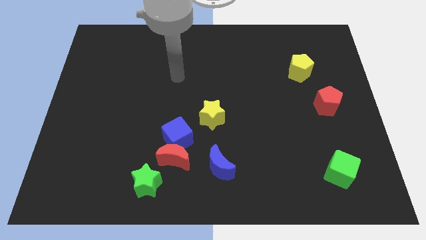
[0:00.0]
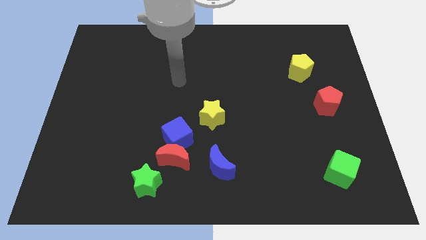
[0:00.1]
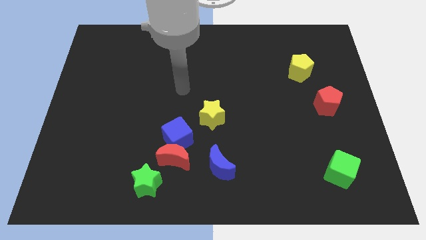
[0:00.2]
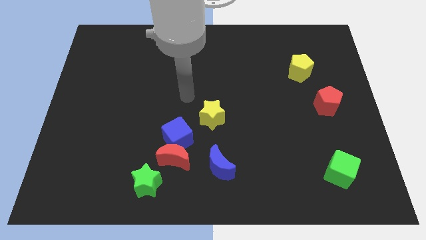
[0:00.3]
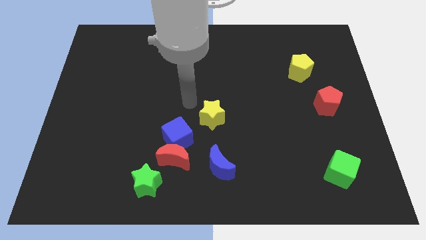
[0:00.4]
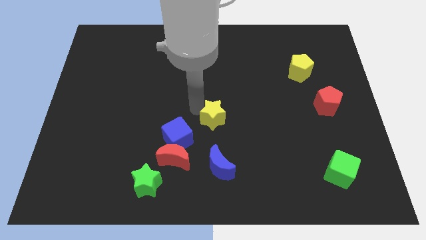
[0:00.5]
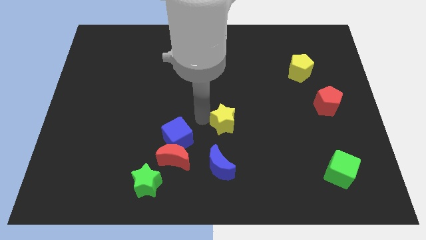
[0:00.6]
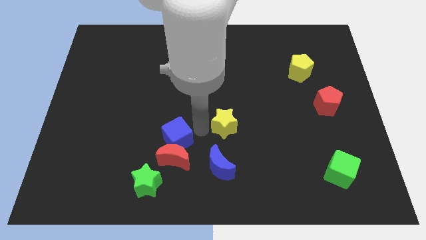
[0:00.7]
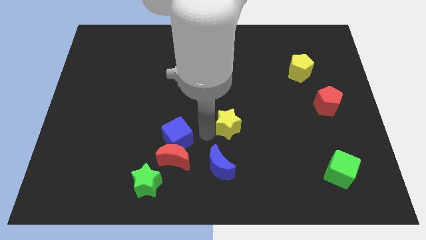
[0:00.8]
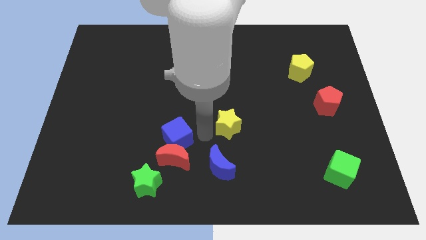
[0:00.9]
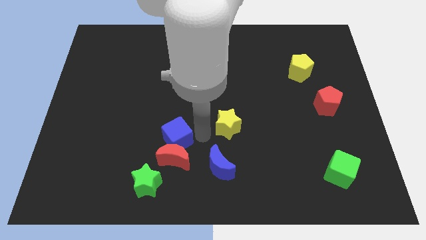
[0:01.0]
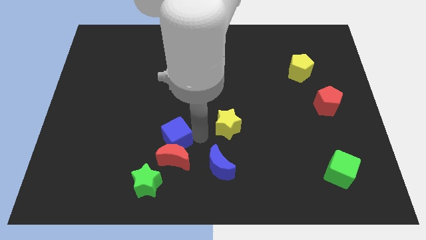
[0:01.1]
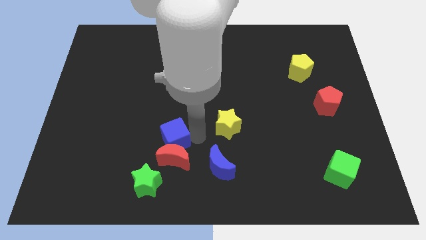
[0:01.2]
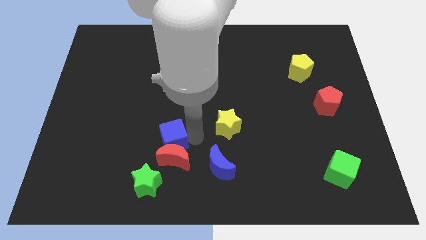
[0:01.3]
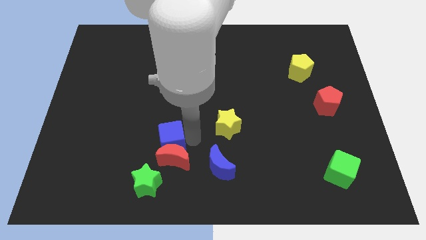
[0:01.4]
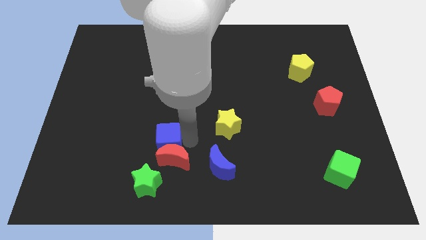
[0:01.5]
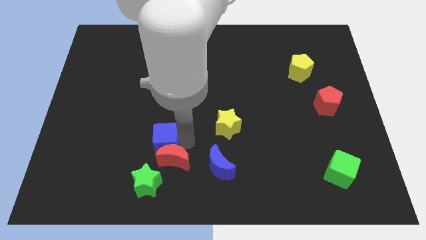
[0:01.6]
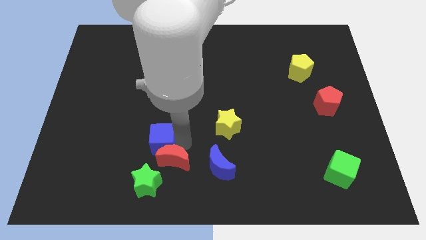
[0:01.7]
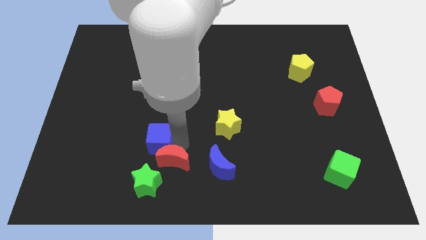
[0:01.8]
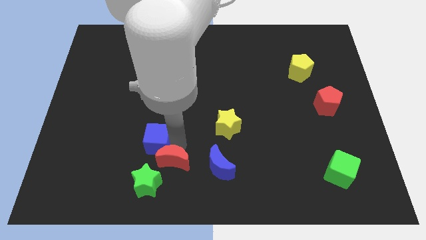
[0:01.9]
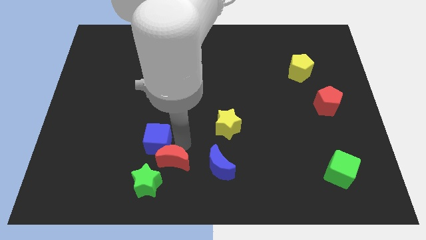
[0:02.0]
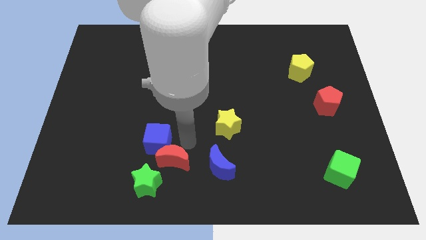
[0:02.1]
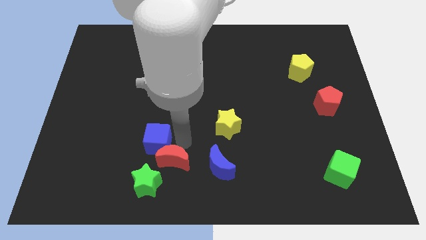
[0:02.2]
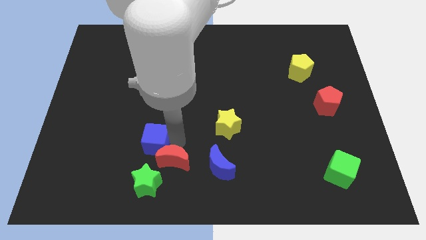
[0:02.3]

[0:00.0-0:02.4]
pull the blue cube apart from the red moon and yellow star

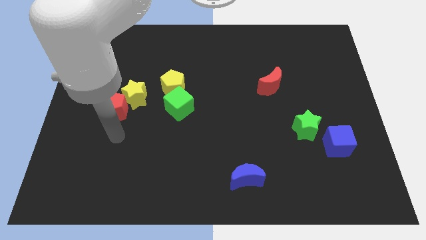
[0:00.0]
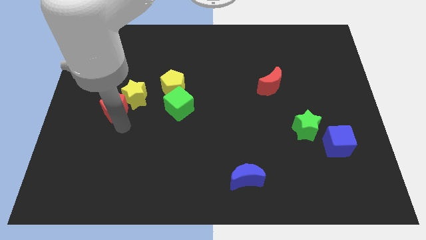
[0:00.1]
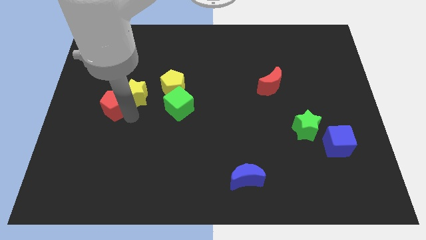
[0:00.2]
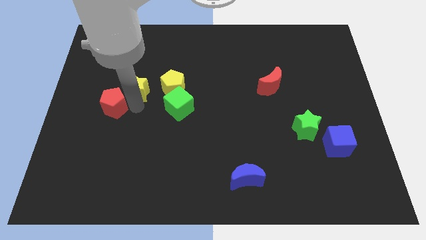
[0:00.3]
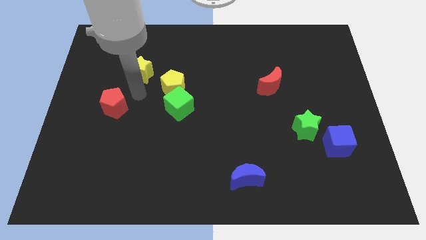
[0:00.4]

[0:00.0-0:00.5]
pull the red pentagon apart from the yellow star

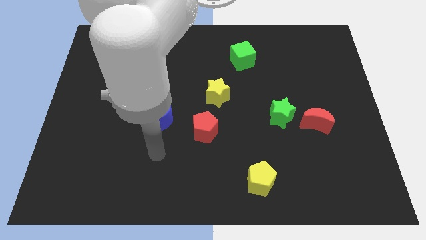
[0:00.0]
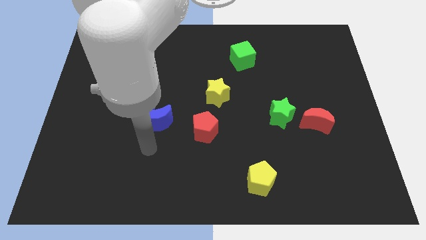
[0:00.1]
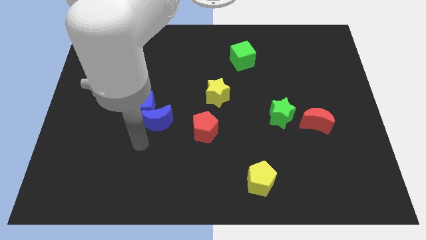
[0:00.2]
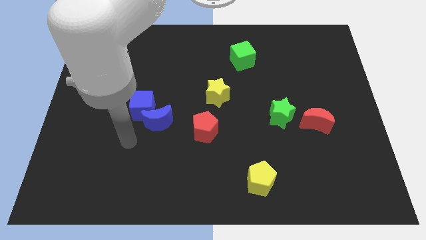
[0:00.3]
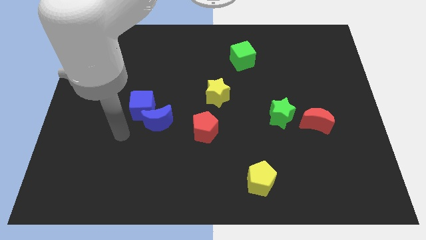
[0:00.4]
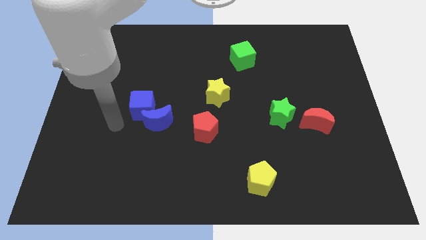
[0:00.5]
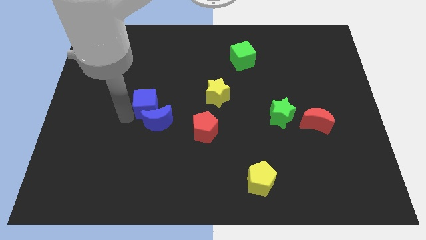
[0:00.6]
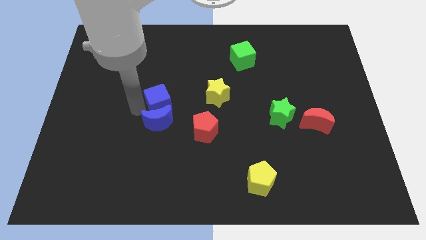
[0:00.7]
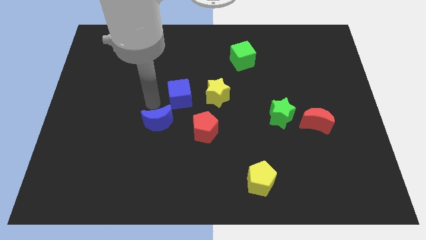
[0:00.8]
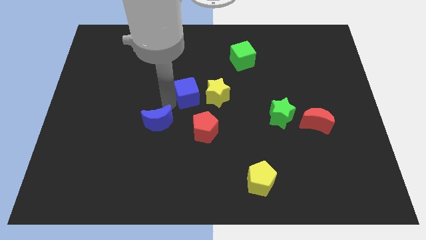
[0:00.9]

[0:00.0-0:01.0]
move the blue moon away from the blue cube

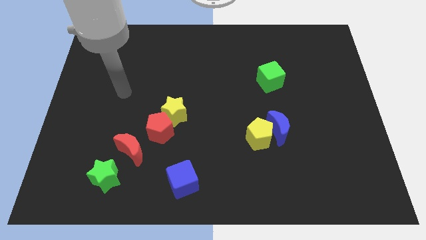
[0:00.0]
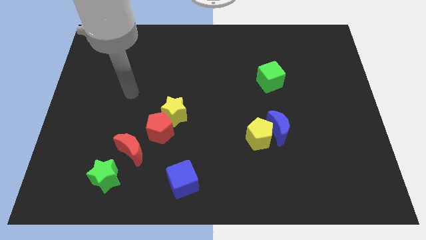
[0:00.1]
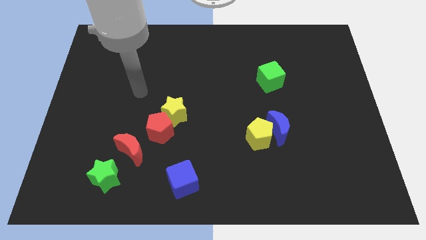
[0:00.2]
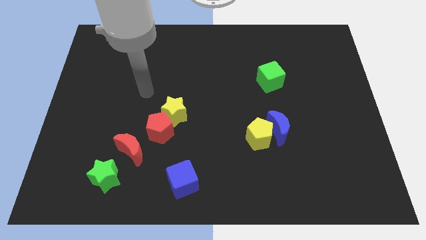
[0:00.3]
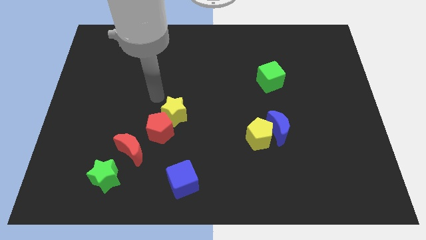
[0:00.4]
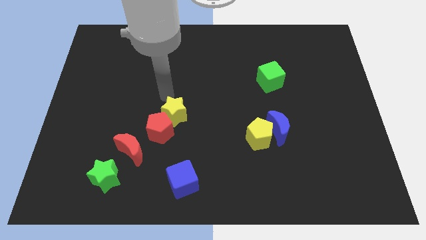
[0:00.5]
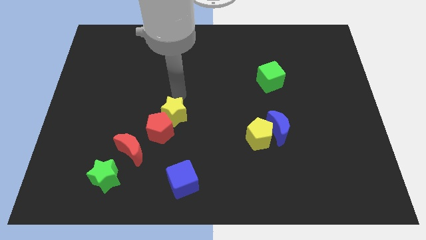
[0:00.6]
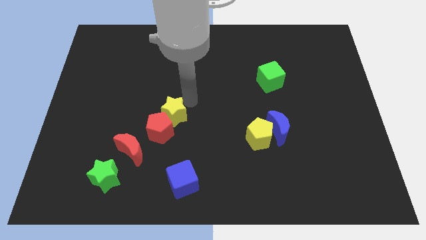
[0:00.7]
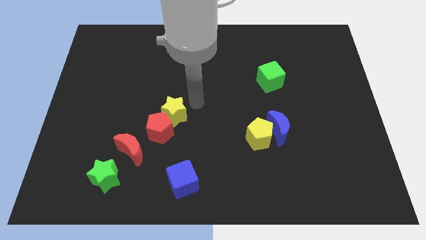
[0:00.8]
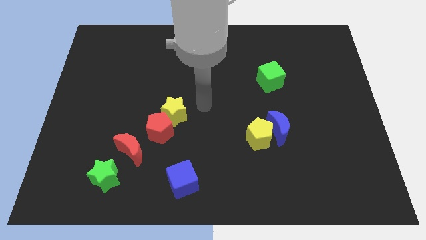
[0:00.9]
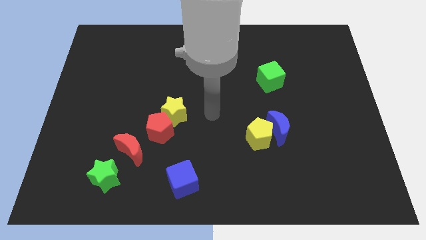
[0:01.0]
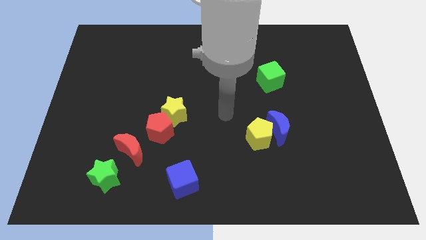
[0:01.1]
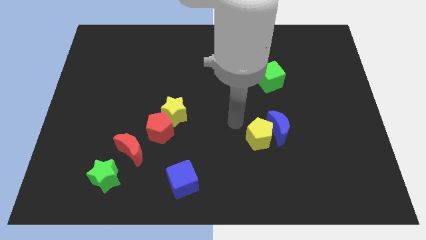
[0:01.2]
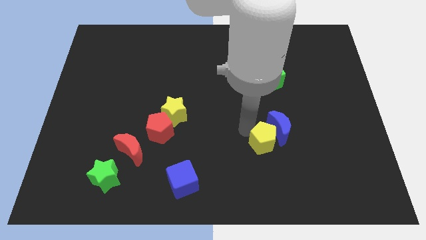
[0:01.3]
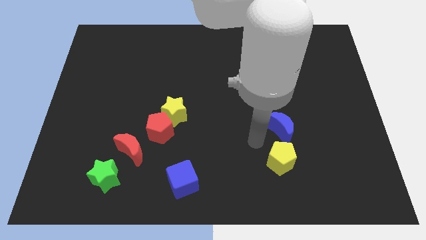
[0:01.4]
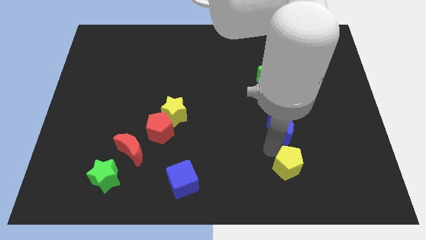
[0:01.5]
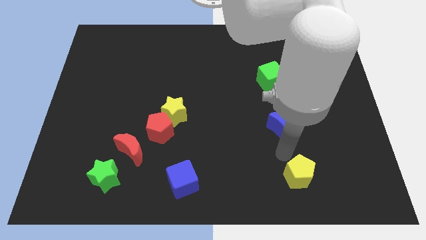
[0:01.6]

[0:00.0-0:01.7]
separate the blue moon from the yellow pentagon

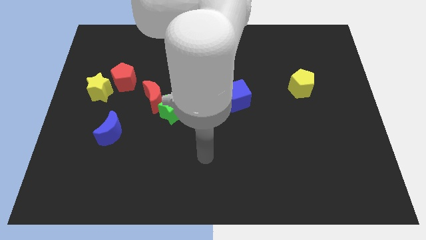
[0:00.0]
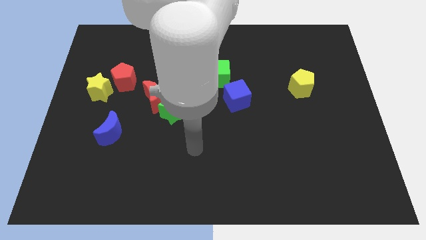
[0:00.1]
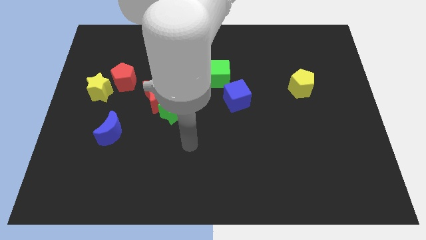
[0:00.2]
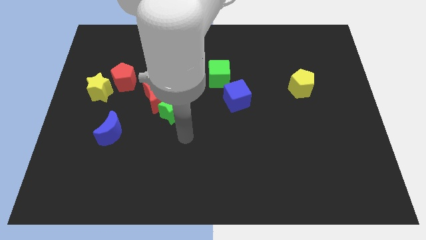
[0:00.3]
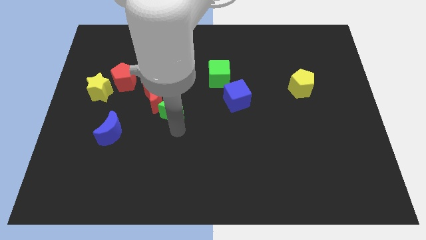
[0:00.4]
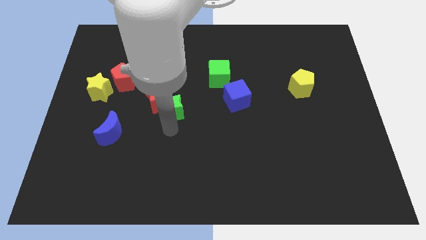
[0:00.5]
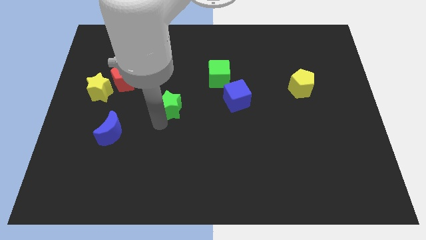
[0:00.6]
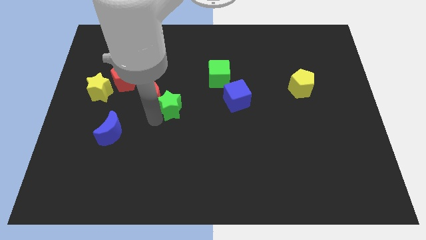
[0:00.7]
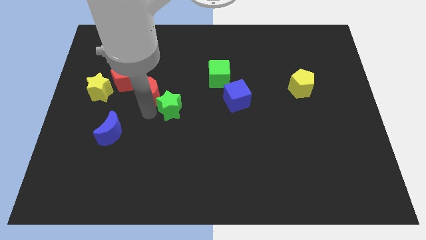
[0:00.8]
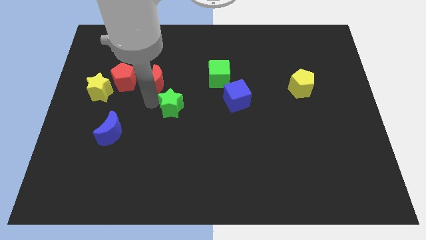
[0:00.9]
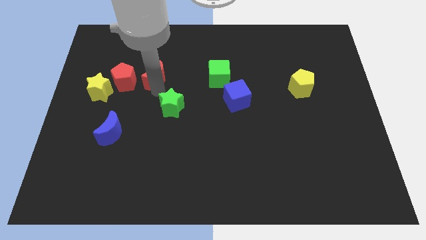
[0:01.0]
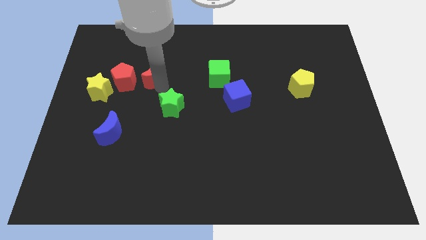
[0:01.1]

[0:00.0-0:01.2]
move the green star away from the red moon

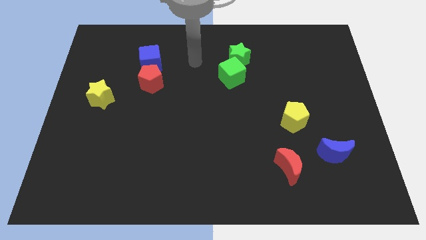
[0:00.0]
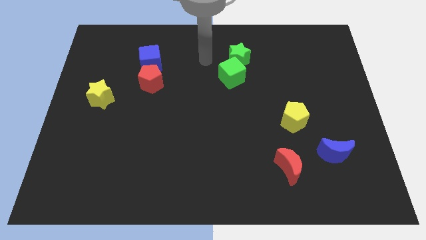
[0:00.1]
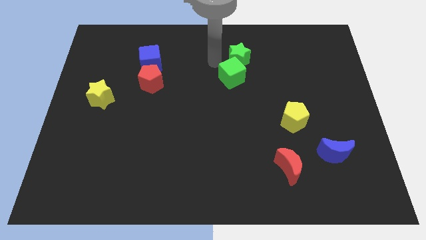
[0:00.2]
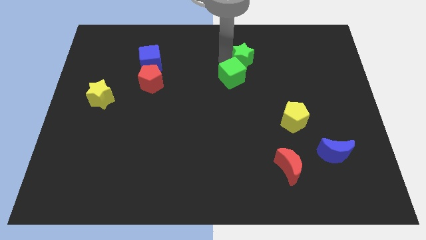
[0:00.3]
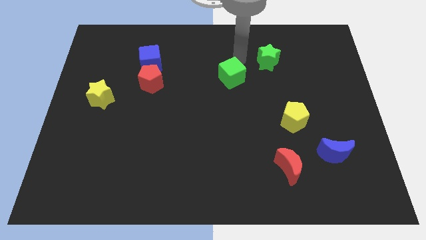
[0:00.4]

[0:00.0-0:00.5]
pull the green cube apart from the green star

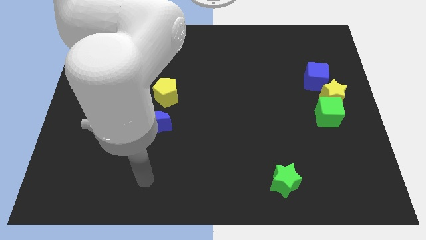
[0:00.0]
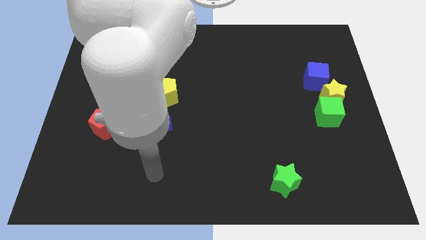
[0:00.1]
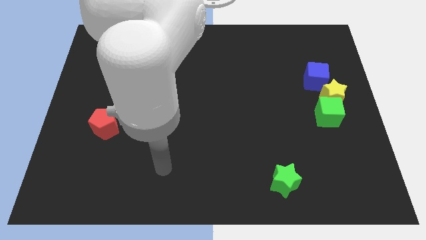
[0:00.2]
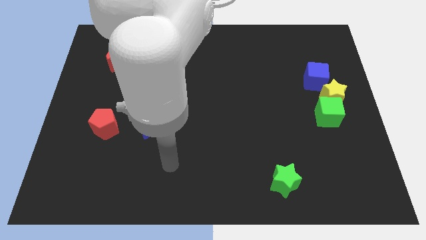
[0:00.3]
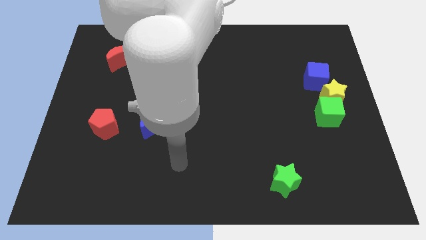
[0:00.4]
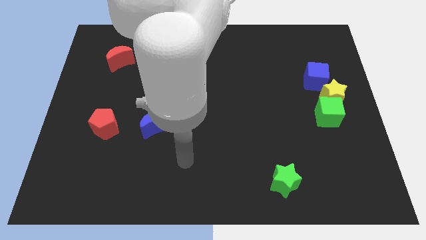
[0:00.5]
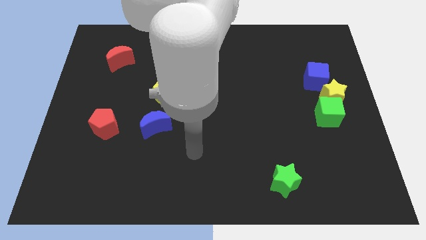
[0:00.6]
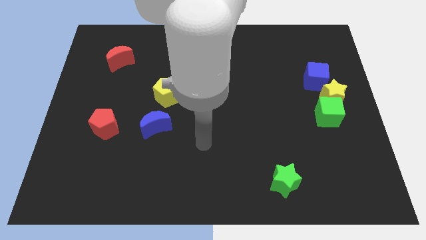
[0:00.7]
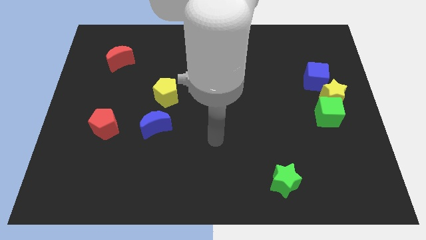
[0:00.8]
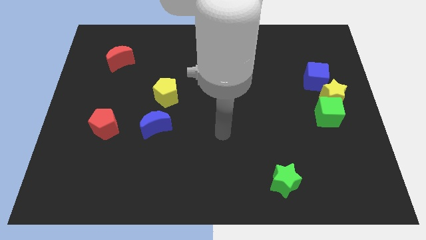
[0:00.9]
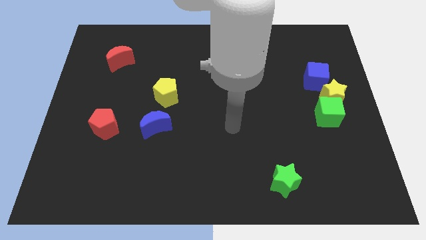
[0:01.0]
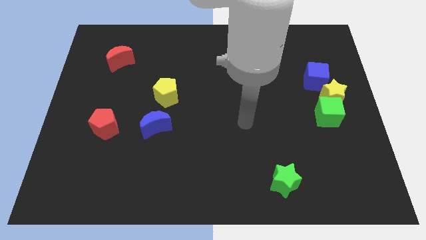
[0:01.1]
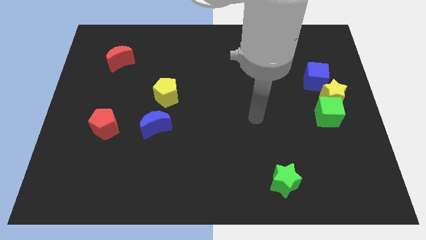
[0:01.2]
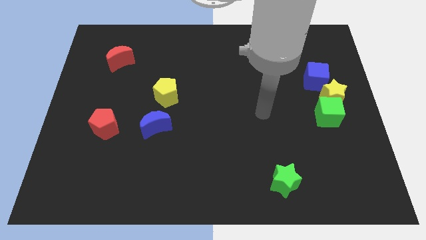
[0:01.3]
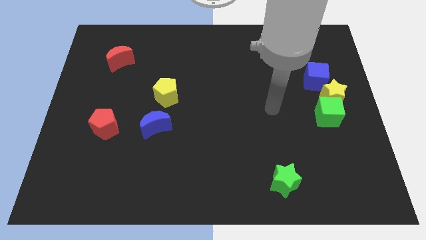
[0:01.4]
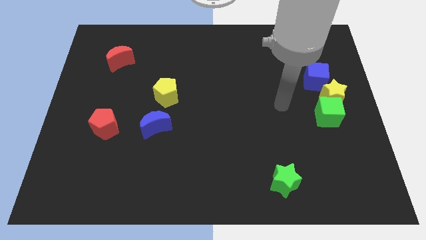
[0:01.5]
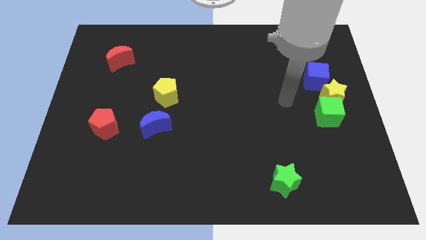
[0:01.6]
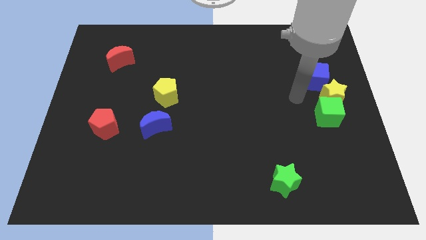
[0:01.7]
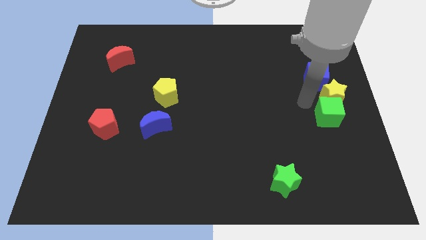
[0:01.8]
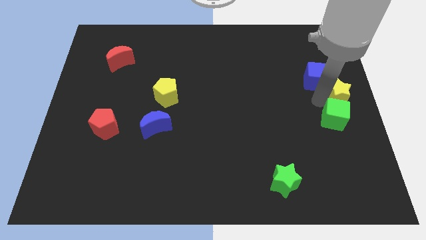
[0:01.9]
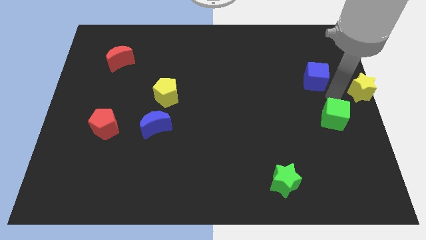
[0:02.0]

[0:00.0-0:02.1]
move the green cube away from the yellow star
